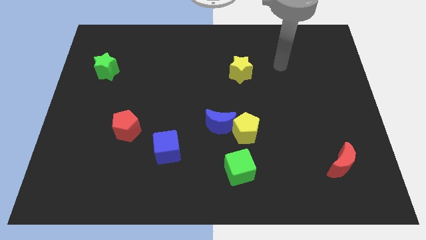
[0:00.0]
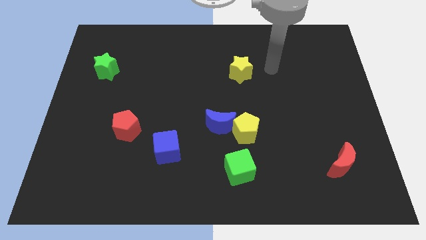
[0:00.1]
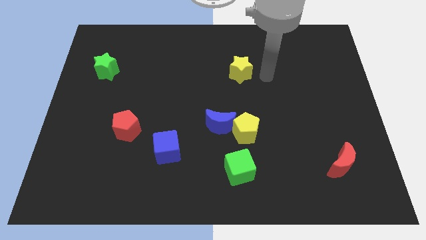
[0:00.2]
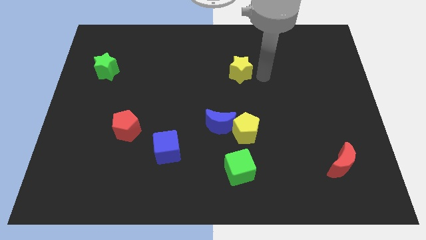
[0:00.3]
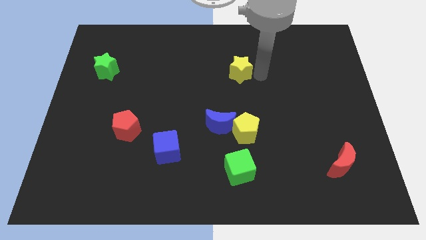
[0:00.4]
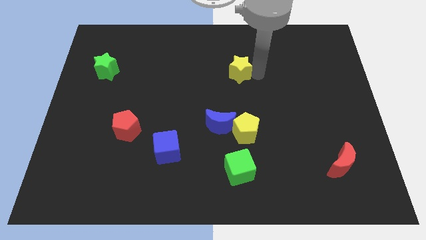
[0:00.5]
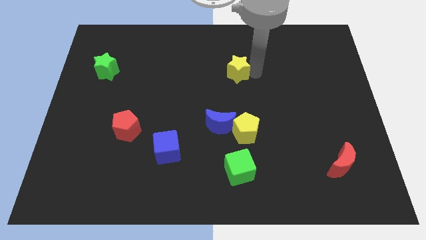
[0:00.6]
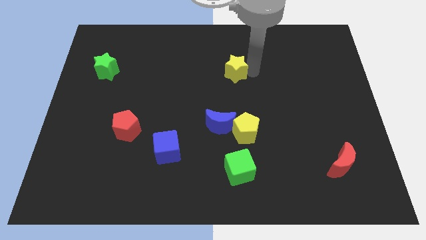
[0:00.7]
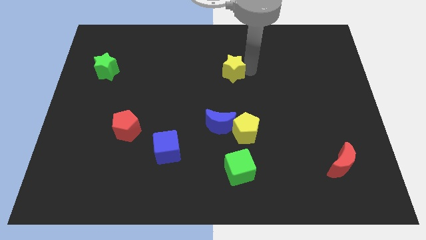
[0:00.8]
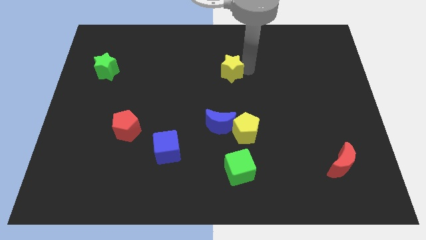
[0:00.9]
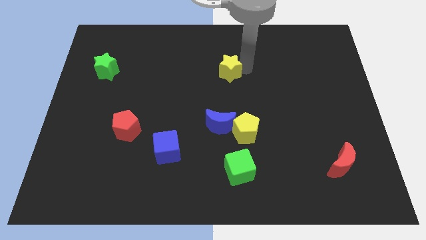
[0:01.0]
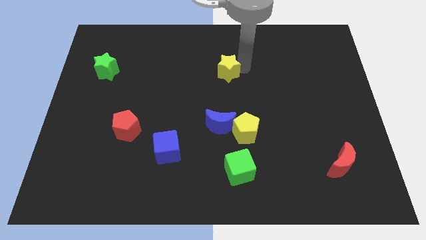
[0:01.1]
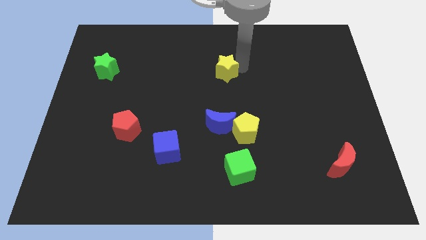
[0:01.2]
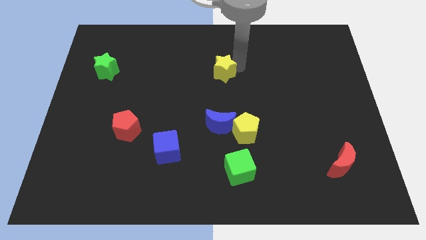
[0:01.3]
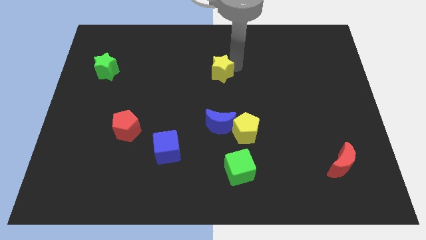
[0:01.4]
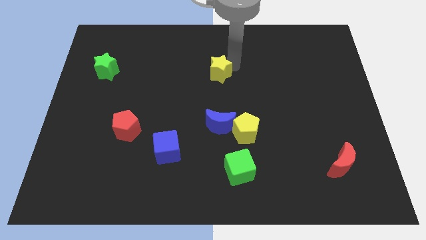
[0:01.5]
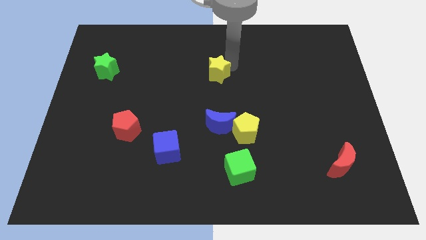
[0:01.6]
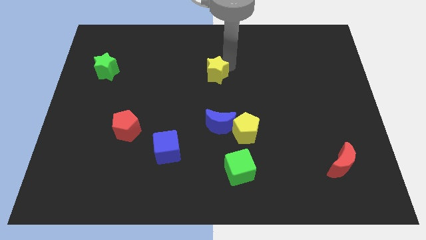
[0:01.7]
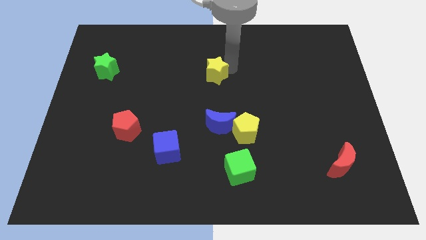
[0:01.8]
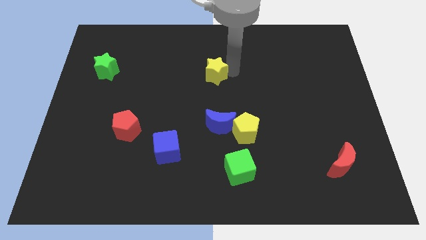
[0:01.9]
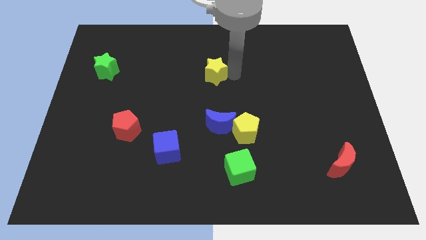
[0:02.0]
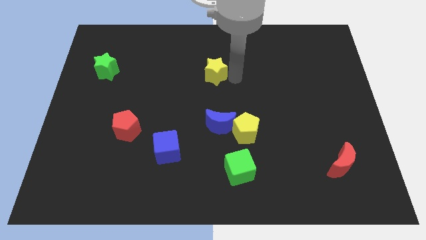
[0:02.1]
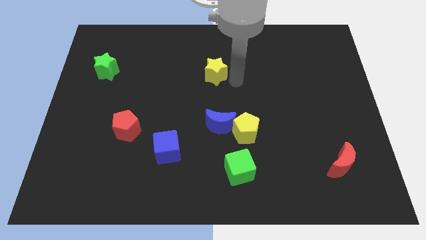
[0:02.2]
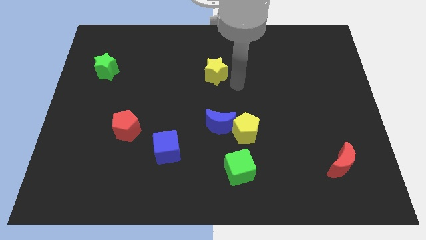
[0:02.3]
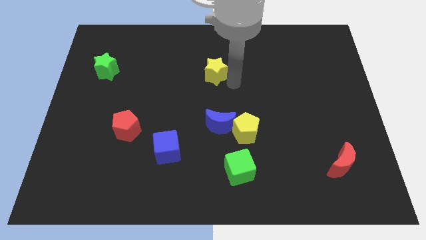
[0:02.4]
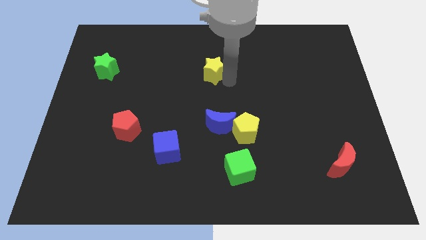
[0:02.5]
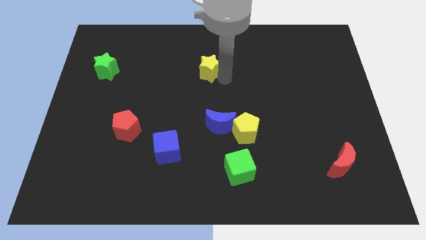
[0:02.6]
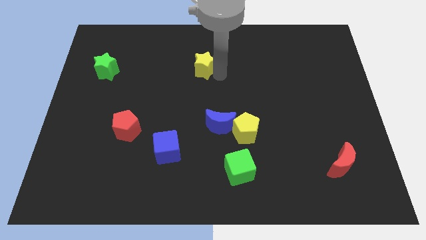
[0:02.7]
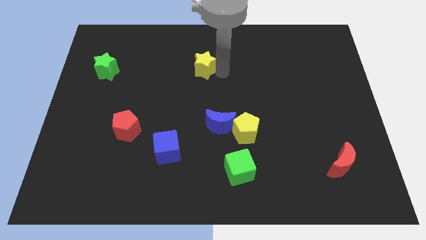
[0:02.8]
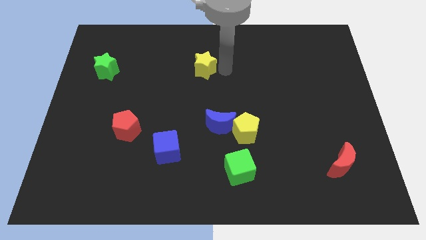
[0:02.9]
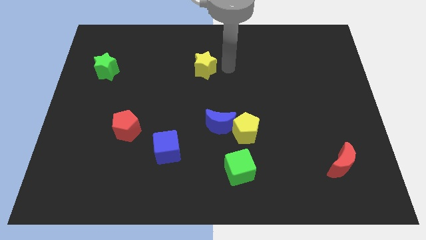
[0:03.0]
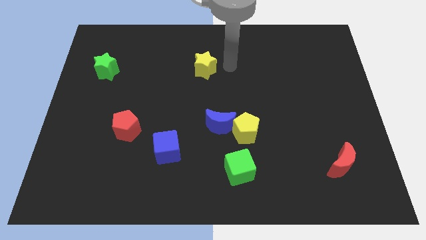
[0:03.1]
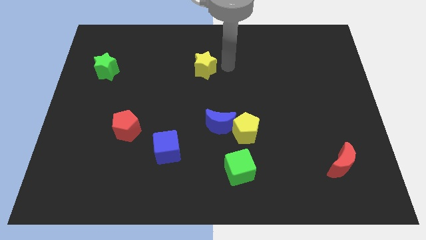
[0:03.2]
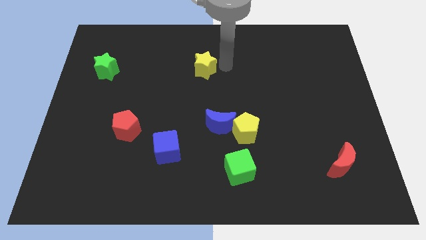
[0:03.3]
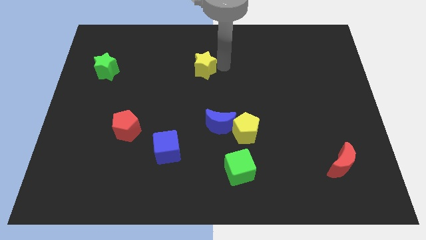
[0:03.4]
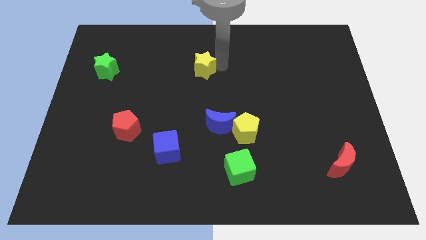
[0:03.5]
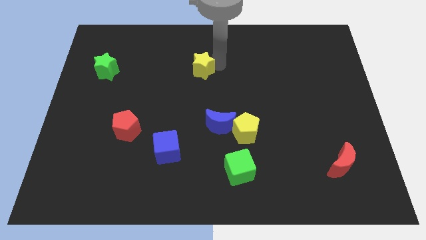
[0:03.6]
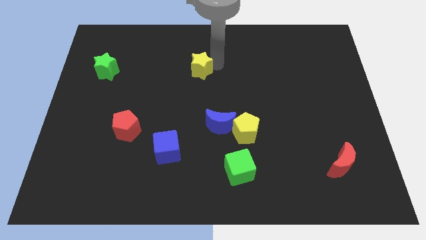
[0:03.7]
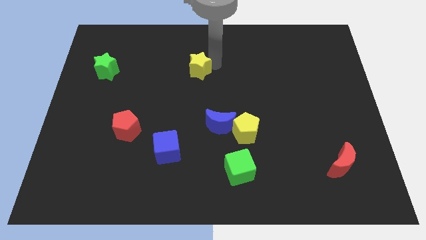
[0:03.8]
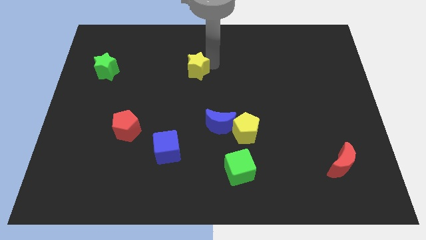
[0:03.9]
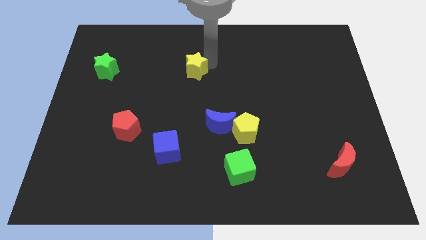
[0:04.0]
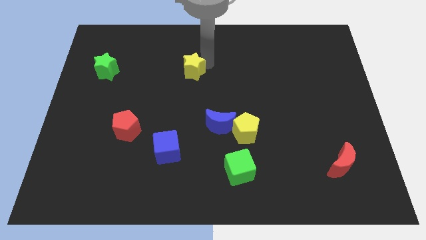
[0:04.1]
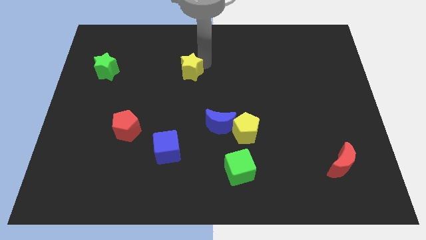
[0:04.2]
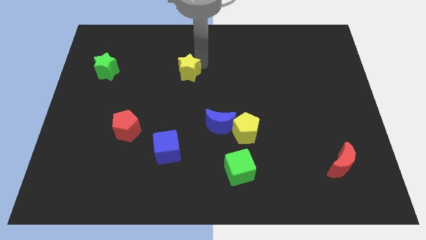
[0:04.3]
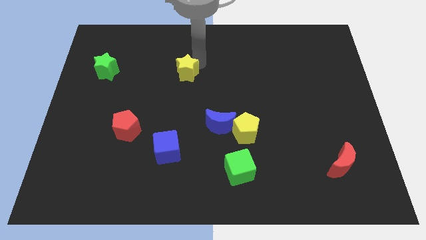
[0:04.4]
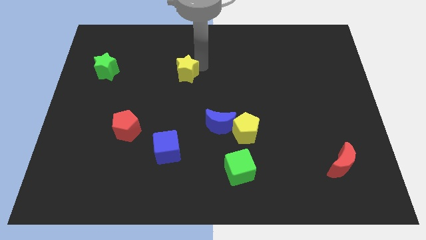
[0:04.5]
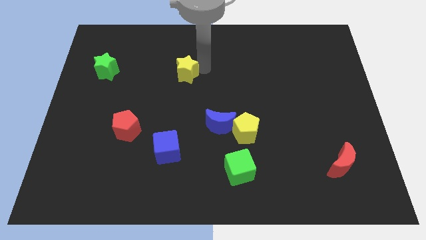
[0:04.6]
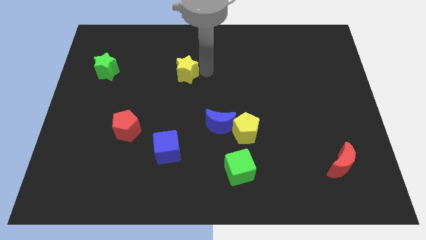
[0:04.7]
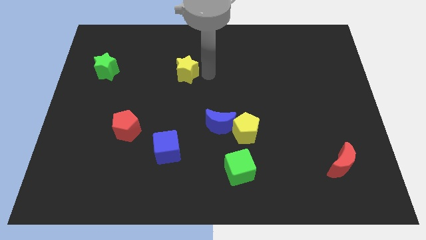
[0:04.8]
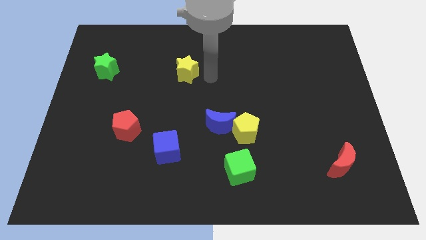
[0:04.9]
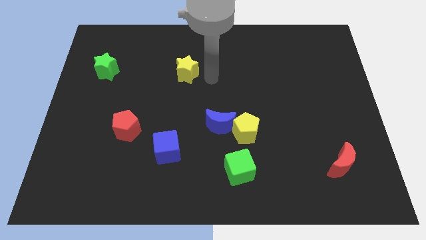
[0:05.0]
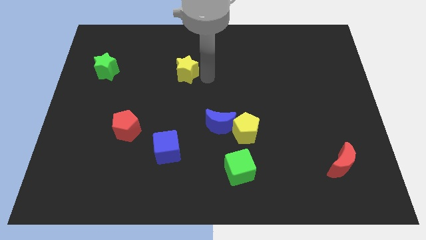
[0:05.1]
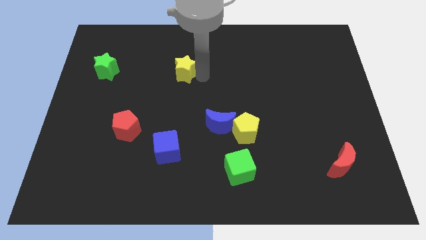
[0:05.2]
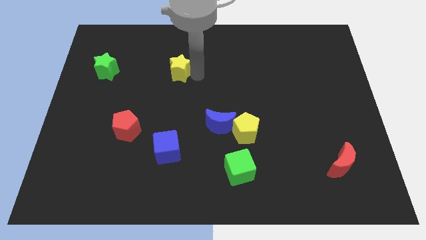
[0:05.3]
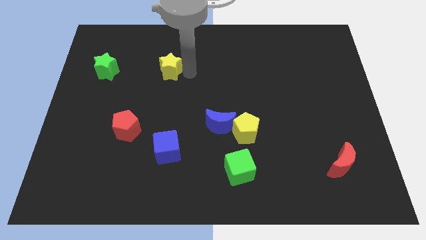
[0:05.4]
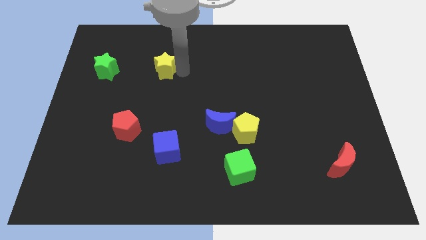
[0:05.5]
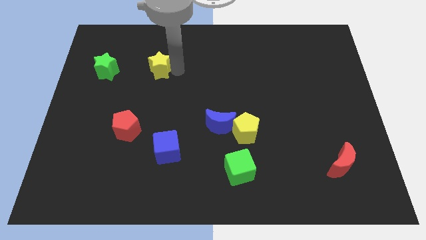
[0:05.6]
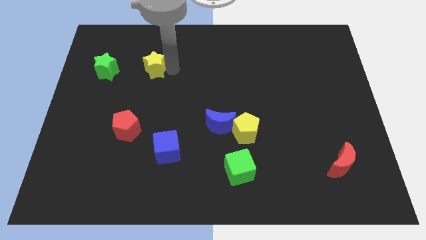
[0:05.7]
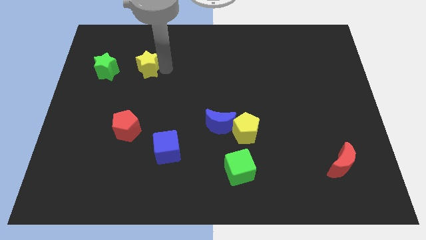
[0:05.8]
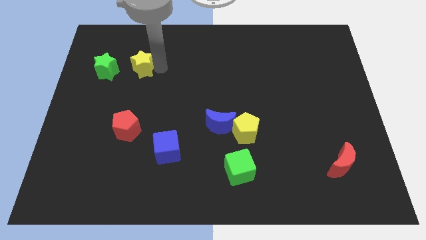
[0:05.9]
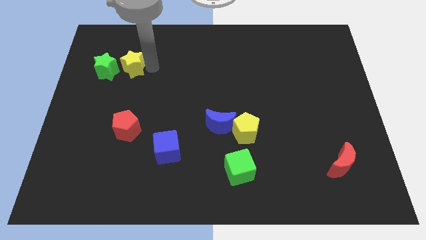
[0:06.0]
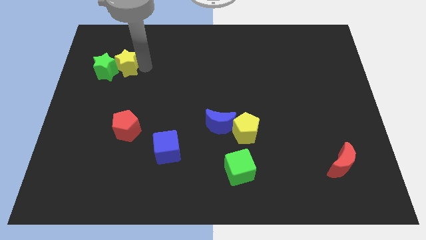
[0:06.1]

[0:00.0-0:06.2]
slide the yellow star close to the green star
